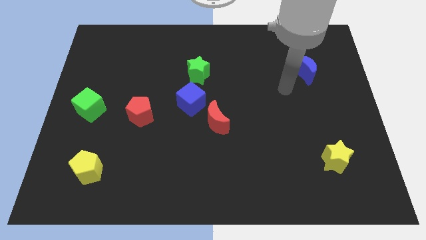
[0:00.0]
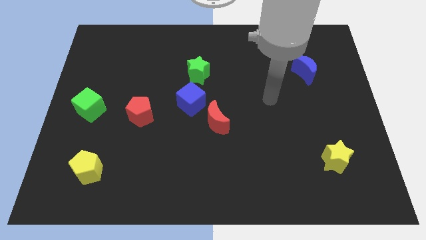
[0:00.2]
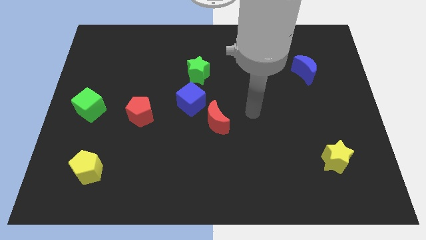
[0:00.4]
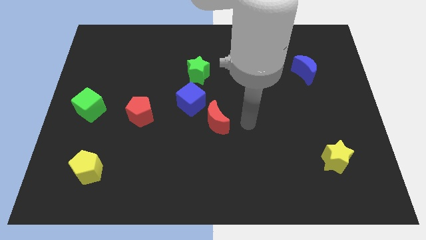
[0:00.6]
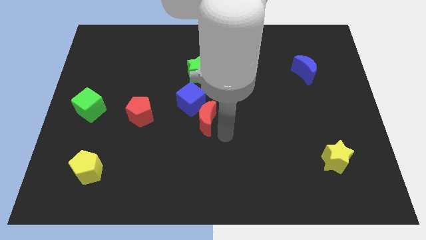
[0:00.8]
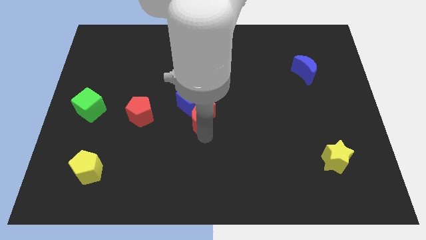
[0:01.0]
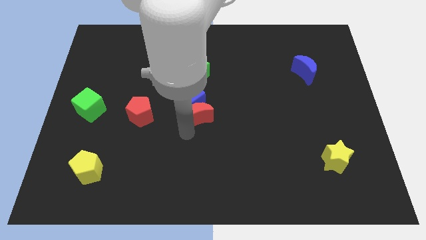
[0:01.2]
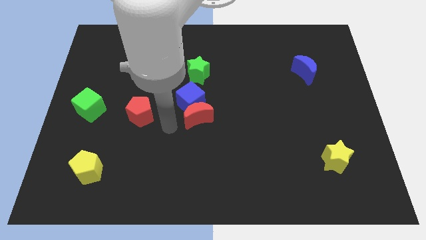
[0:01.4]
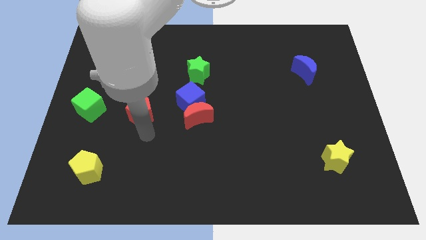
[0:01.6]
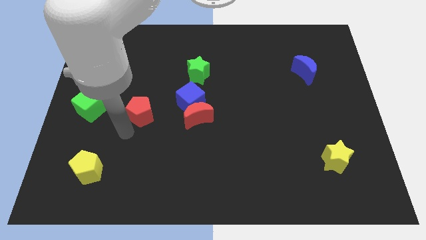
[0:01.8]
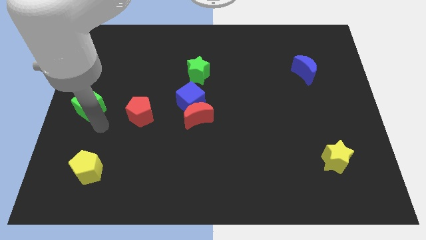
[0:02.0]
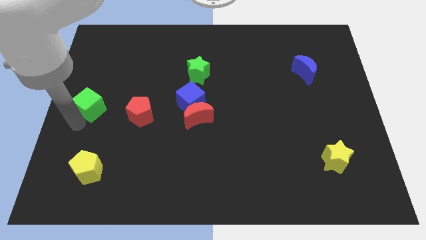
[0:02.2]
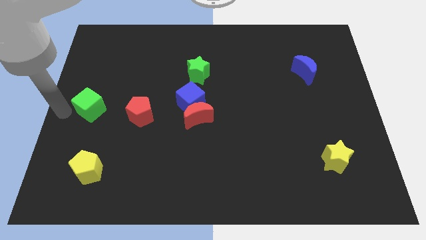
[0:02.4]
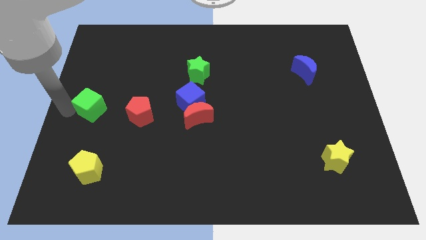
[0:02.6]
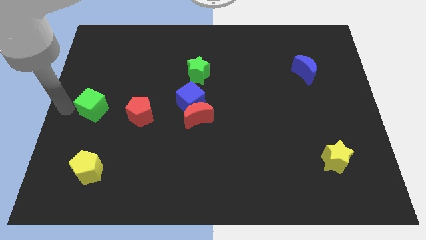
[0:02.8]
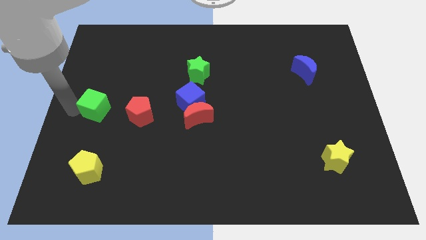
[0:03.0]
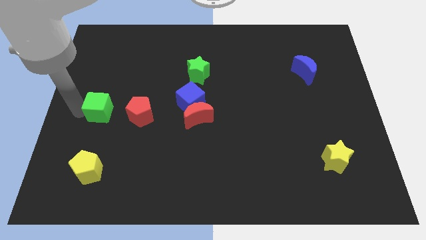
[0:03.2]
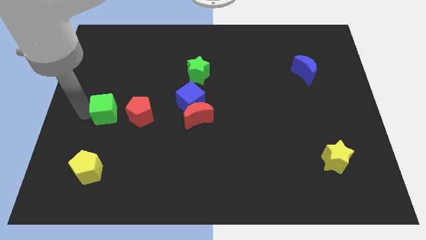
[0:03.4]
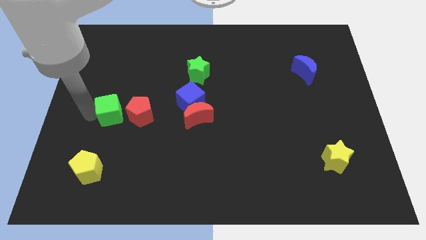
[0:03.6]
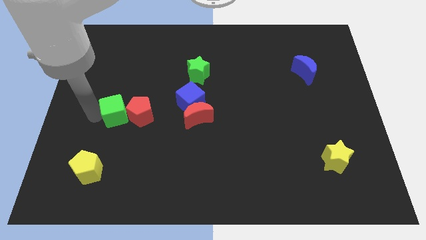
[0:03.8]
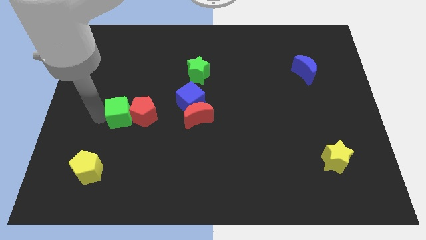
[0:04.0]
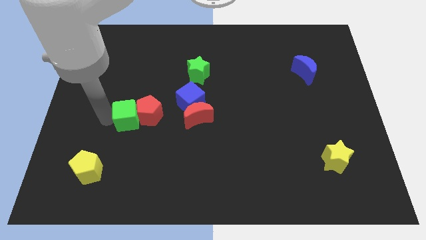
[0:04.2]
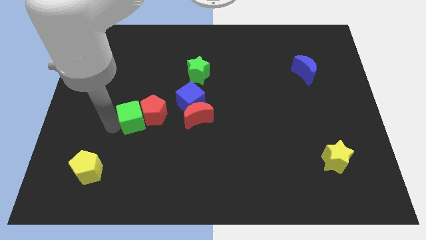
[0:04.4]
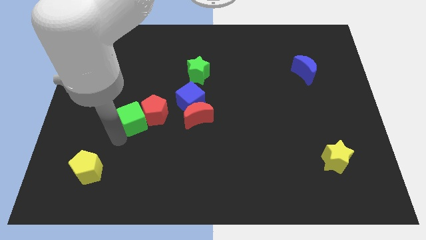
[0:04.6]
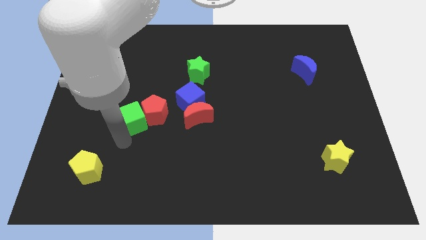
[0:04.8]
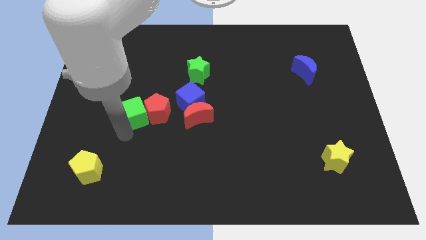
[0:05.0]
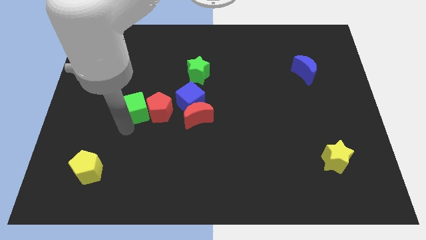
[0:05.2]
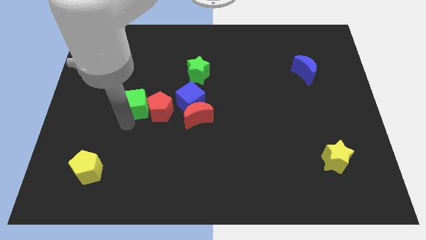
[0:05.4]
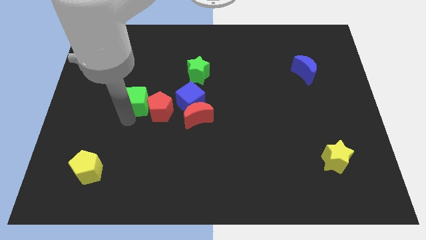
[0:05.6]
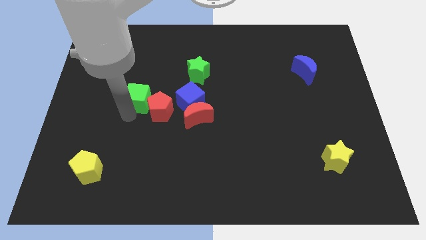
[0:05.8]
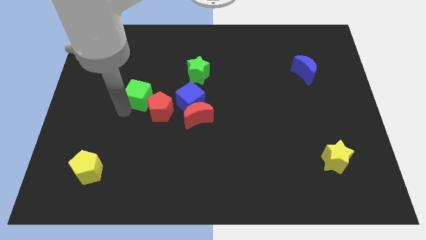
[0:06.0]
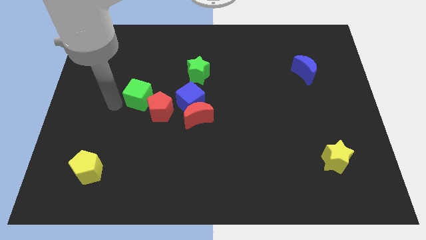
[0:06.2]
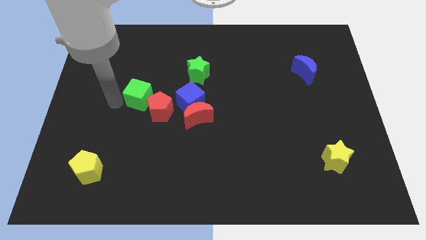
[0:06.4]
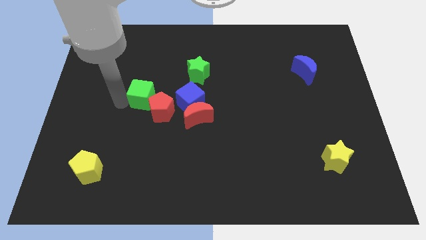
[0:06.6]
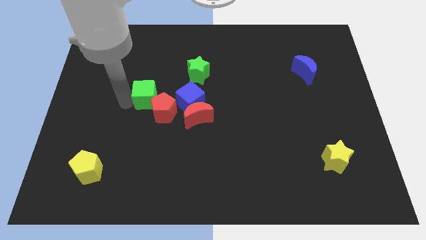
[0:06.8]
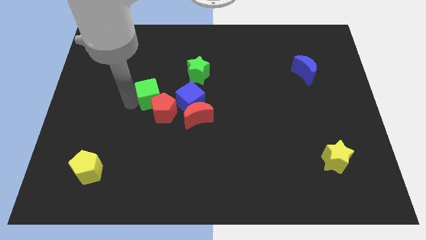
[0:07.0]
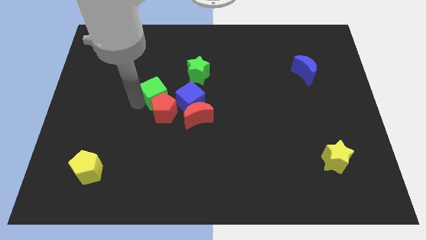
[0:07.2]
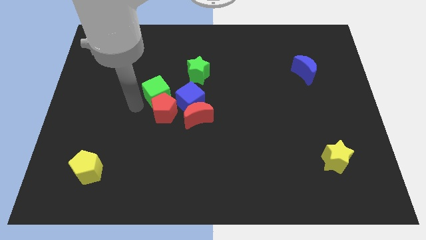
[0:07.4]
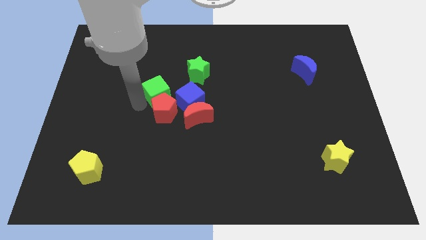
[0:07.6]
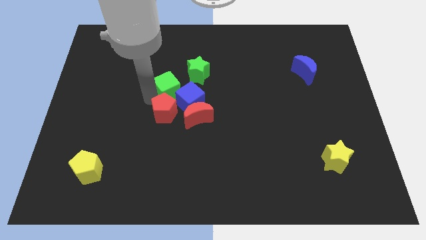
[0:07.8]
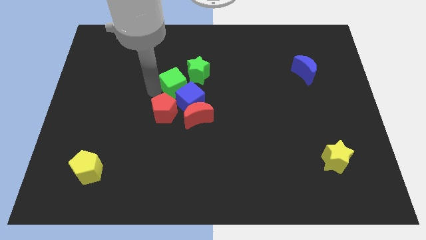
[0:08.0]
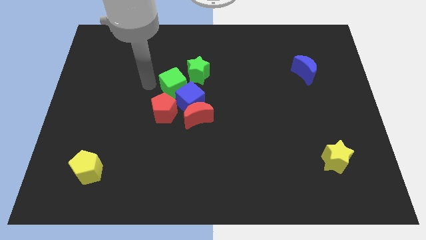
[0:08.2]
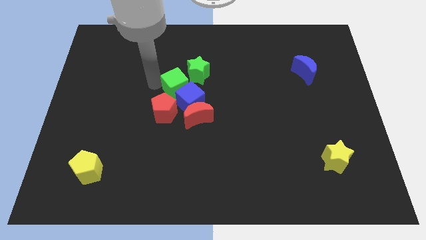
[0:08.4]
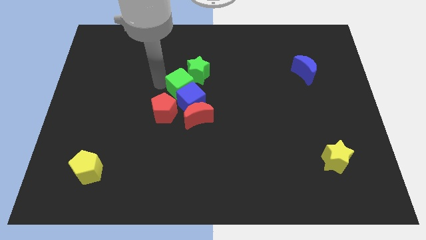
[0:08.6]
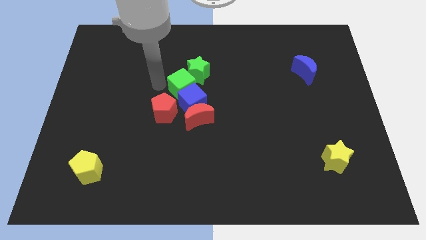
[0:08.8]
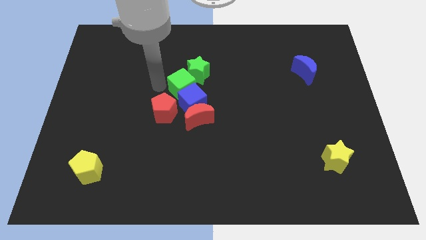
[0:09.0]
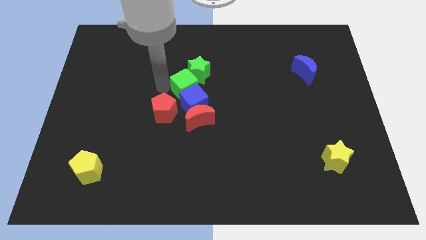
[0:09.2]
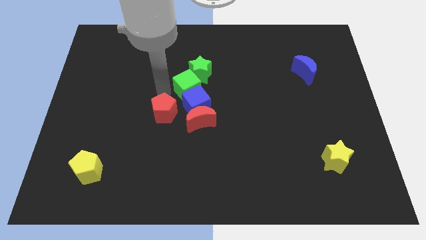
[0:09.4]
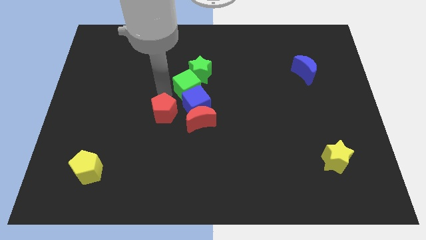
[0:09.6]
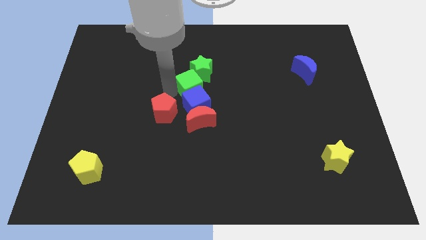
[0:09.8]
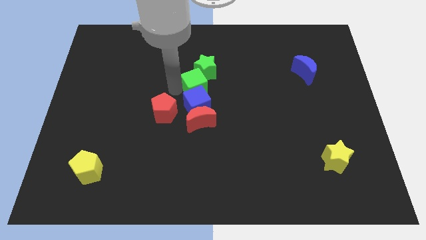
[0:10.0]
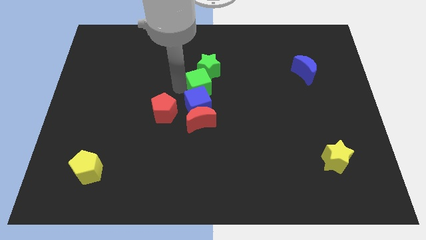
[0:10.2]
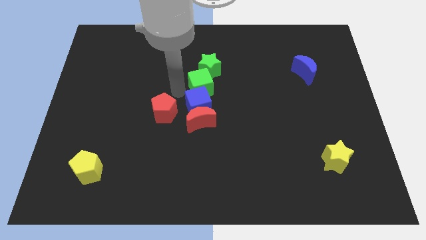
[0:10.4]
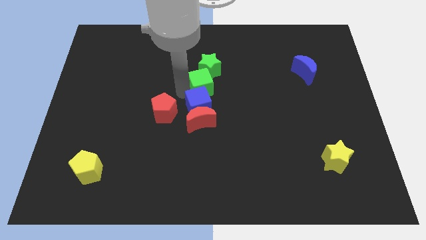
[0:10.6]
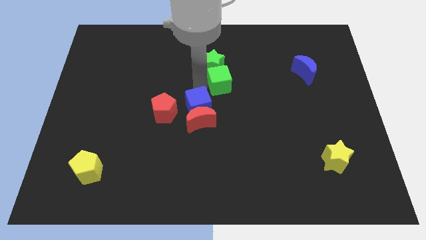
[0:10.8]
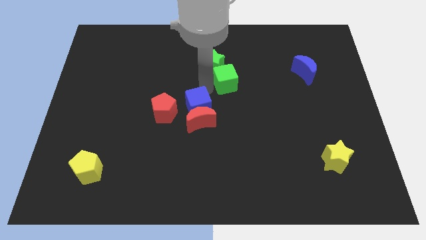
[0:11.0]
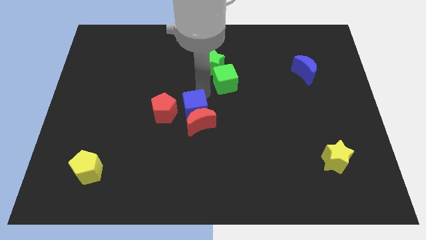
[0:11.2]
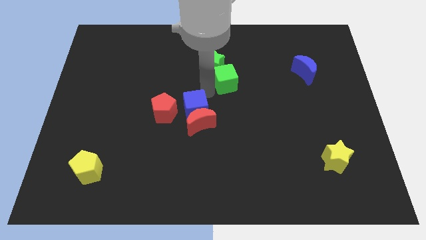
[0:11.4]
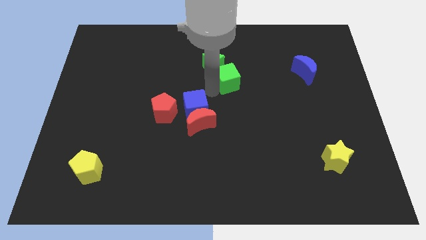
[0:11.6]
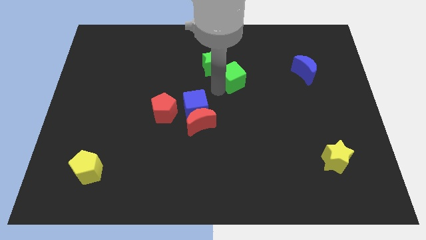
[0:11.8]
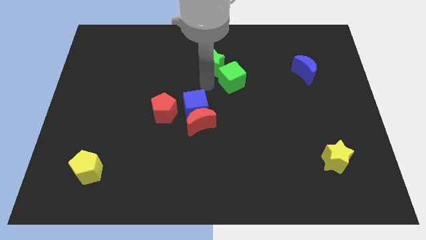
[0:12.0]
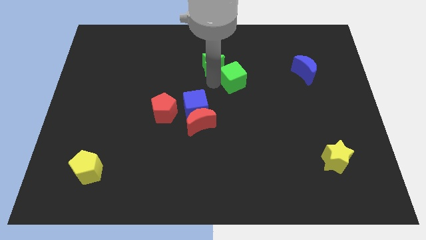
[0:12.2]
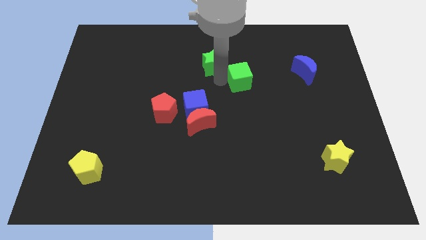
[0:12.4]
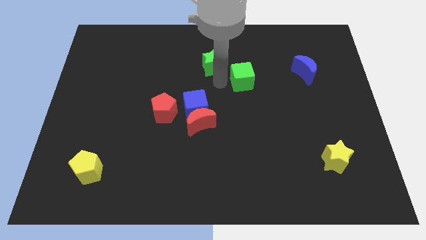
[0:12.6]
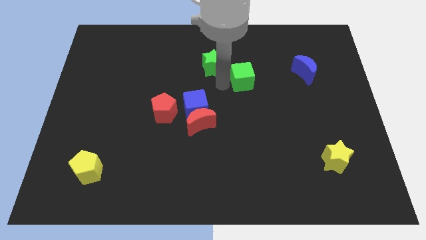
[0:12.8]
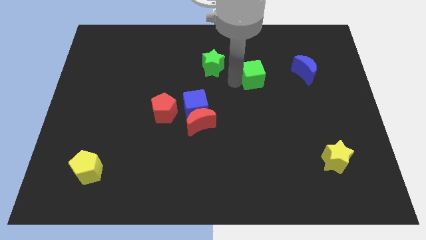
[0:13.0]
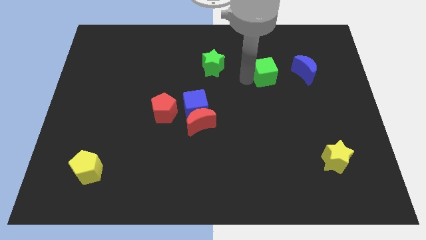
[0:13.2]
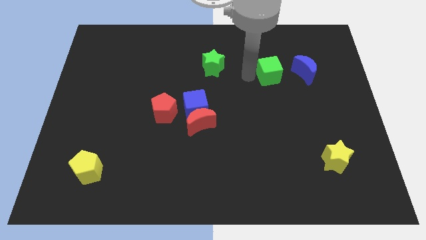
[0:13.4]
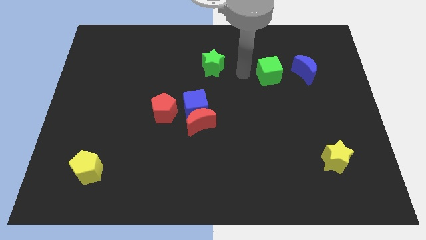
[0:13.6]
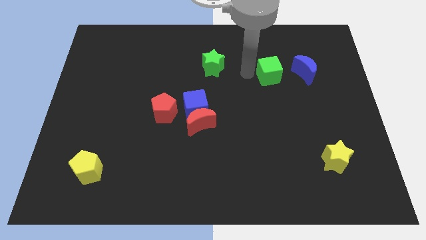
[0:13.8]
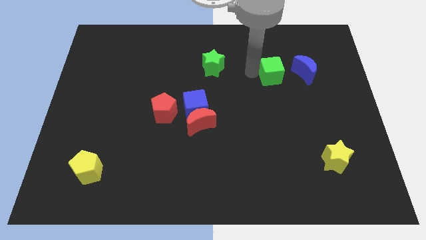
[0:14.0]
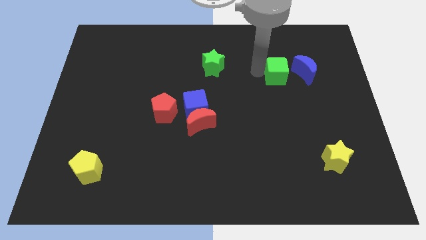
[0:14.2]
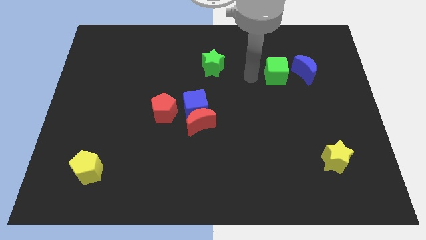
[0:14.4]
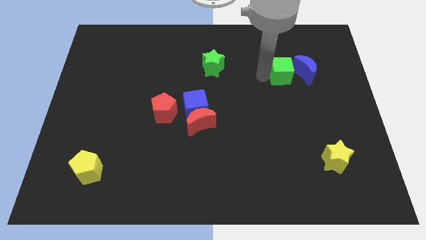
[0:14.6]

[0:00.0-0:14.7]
push the green cube towards the blue moon

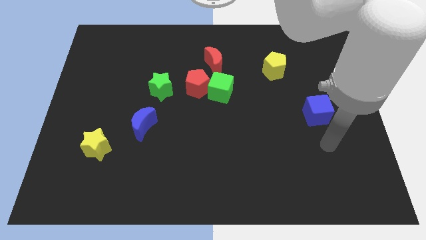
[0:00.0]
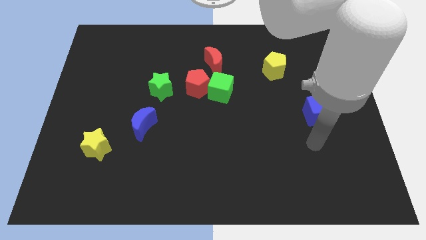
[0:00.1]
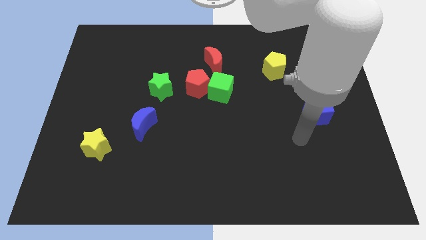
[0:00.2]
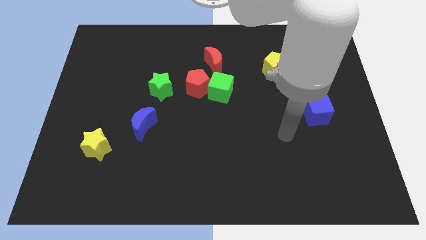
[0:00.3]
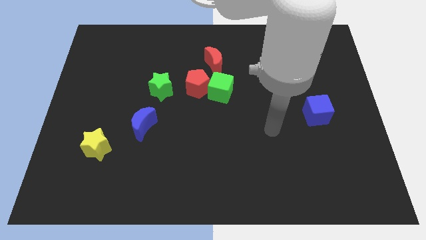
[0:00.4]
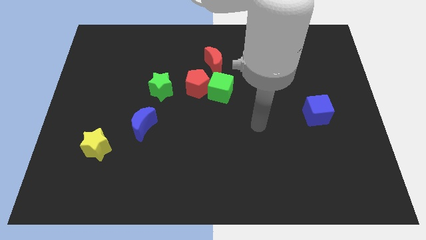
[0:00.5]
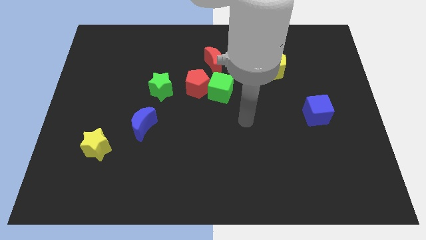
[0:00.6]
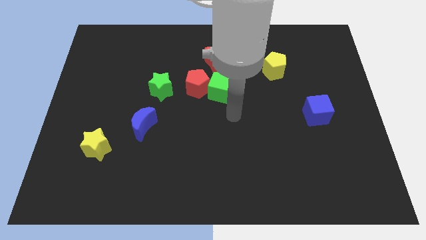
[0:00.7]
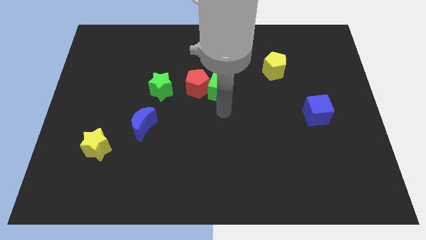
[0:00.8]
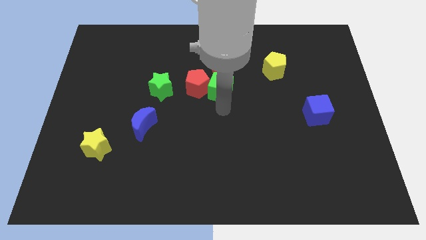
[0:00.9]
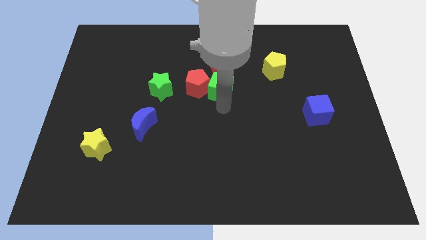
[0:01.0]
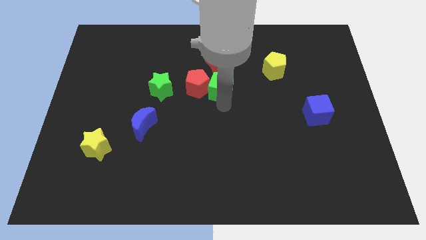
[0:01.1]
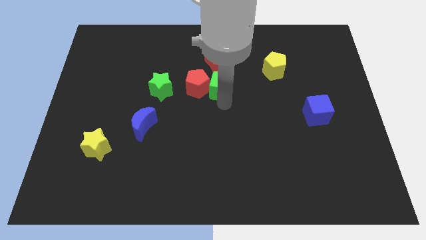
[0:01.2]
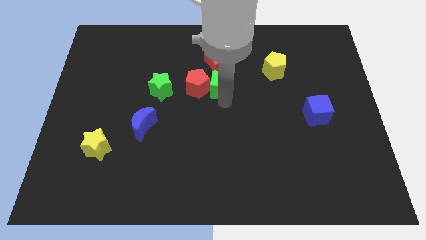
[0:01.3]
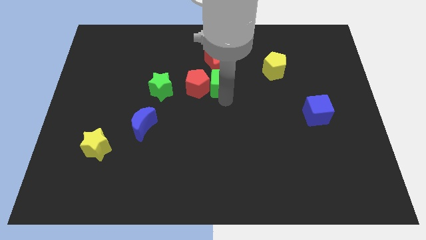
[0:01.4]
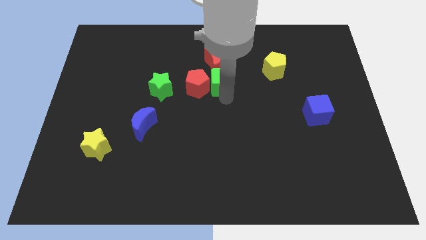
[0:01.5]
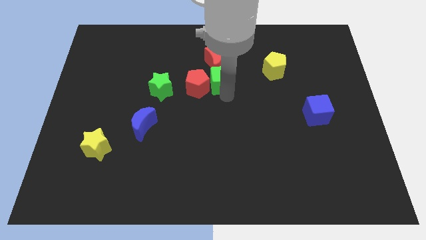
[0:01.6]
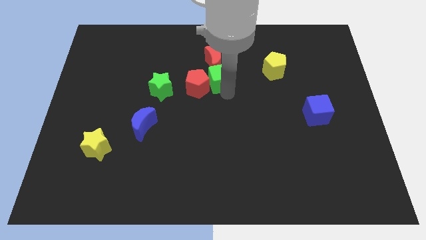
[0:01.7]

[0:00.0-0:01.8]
move the green cube to the red moon
